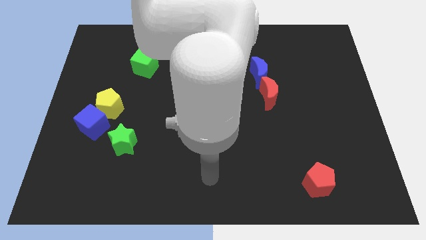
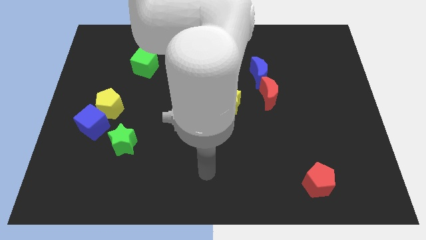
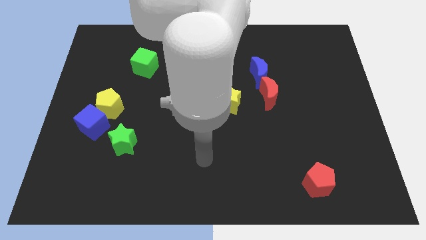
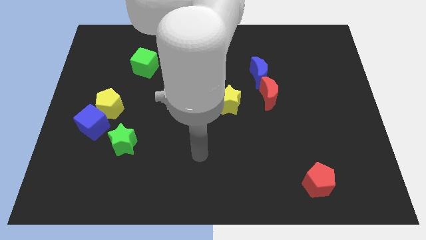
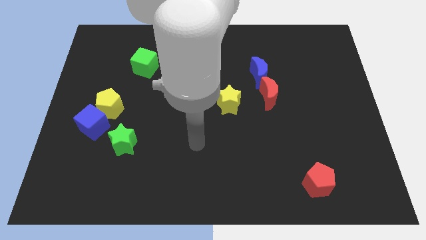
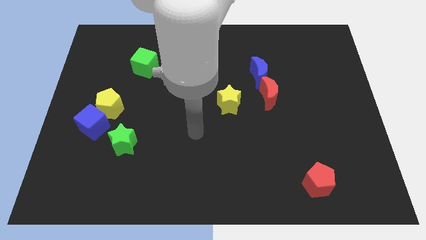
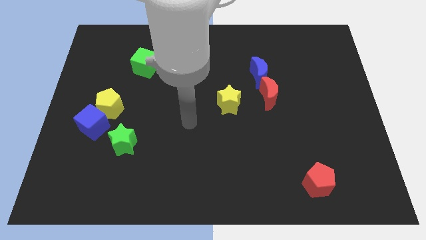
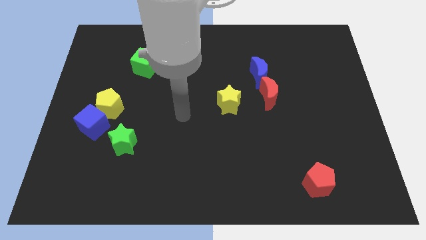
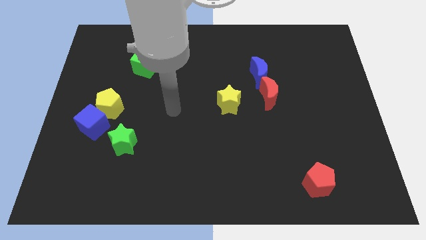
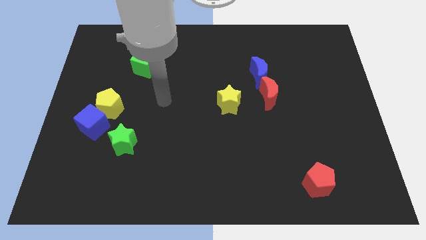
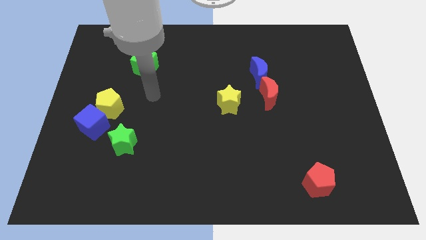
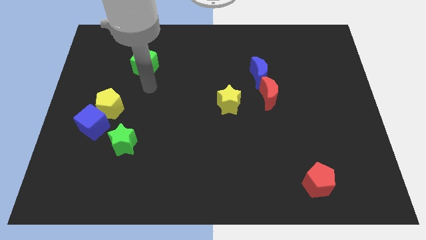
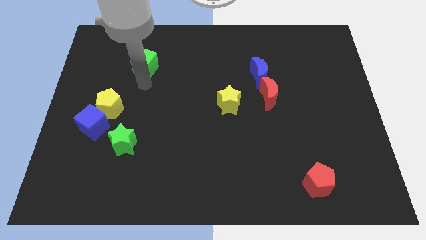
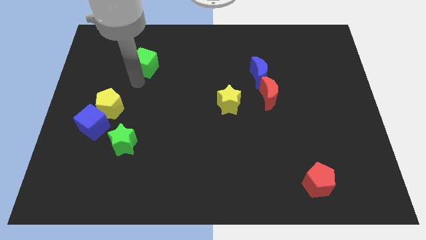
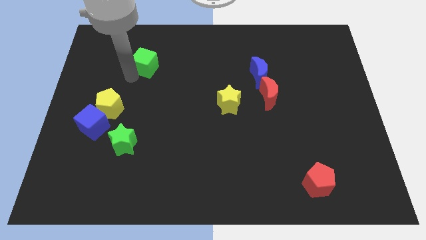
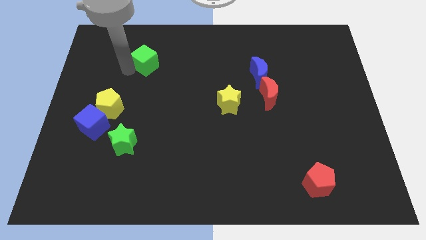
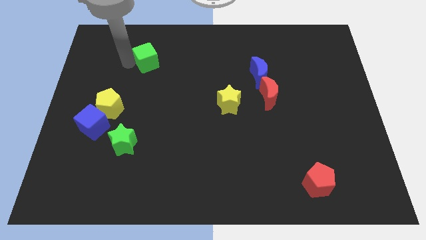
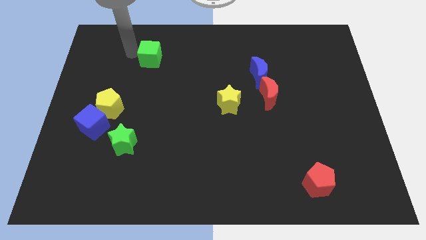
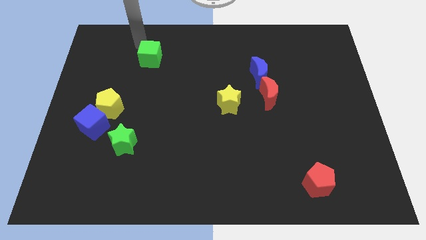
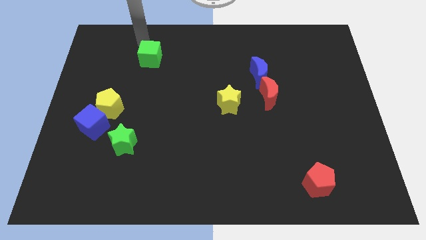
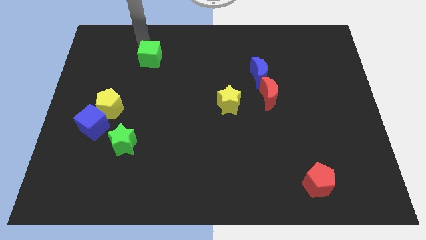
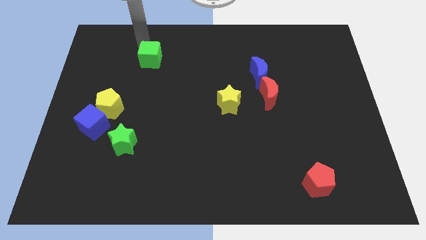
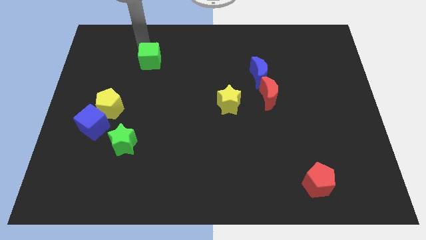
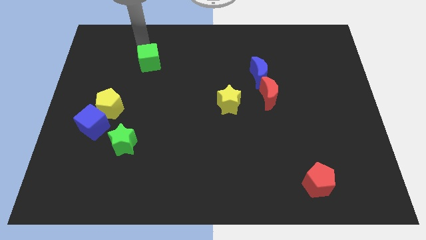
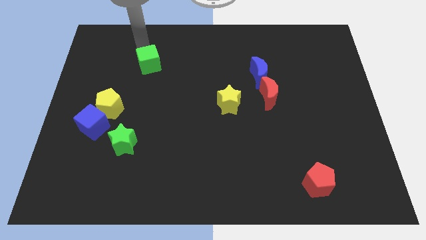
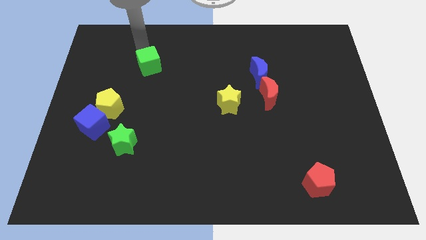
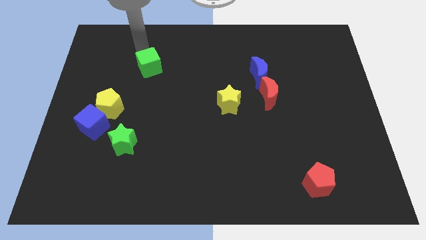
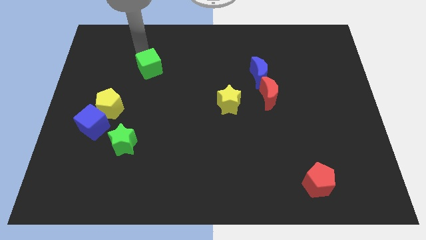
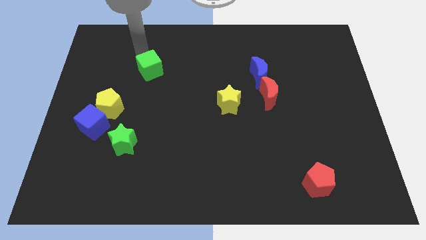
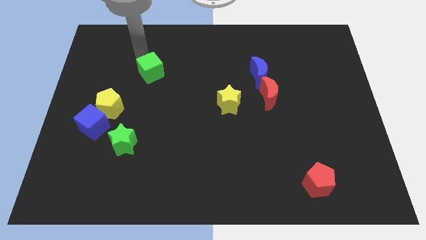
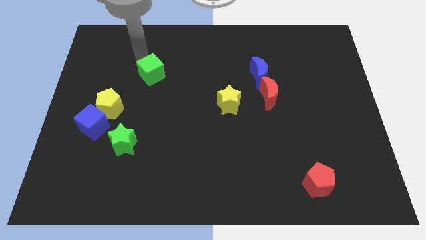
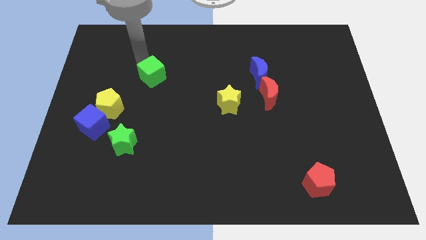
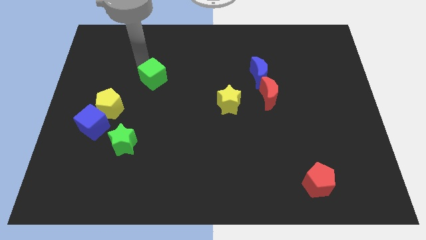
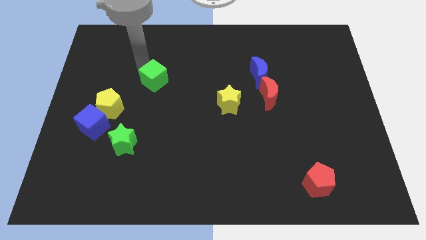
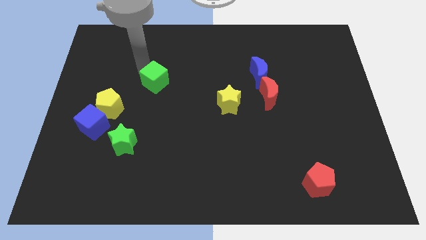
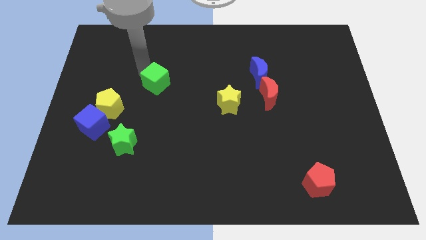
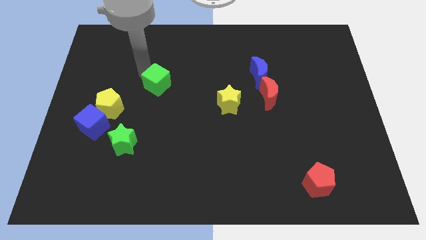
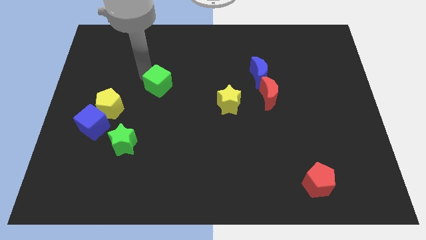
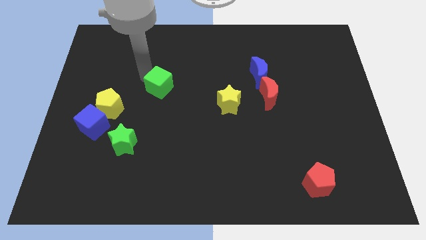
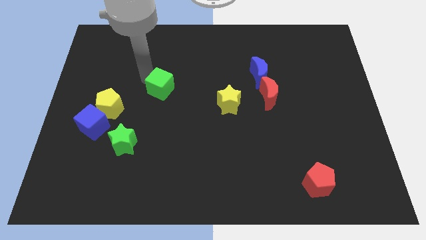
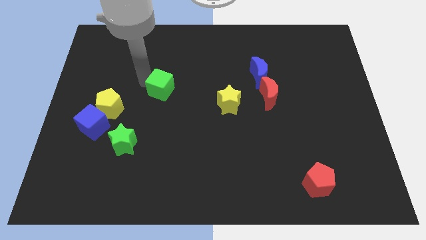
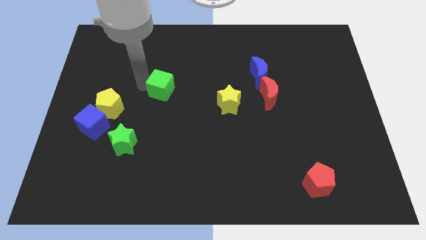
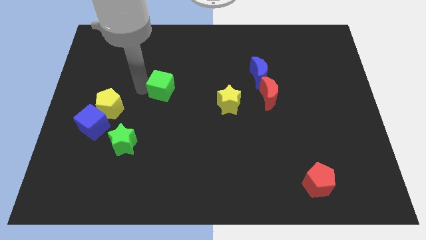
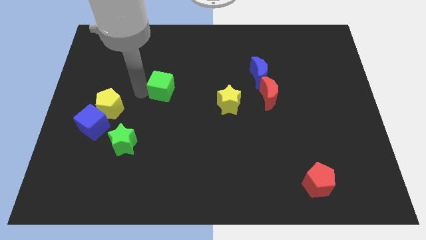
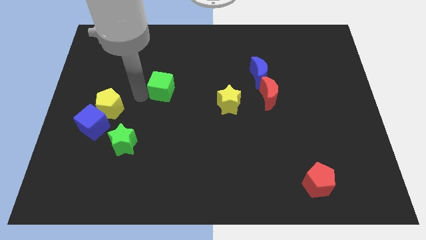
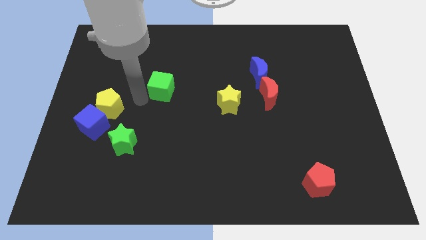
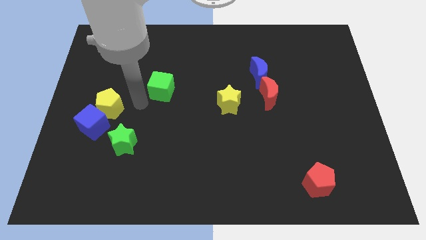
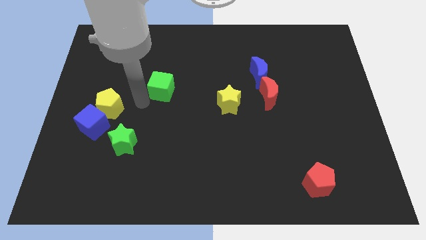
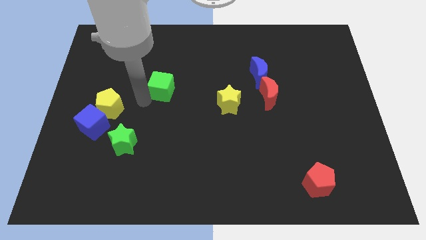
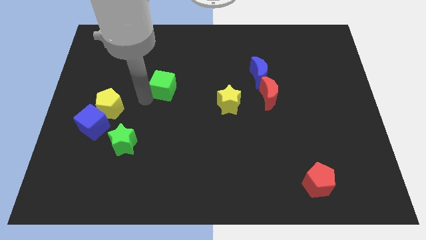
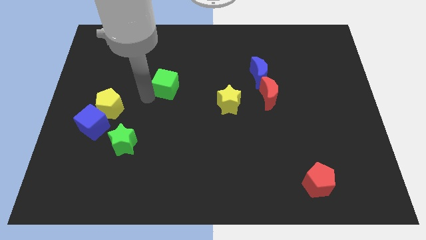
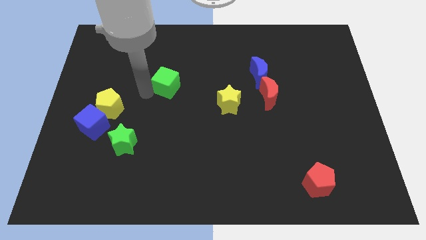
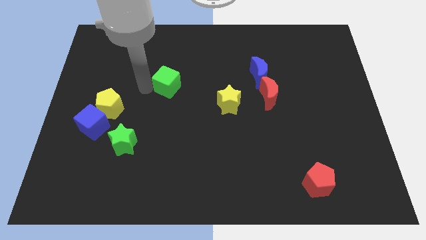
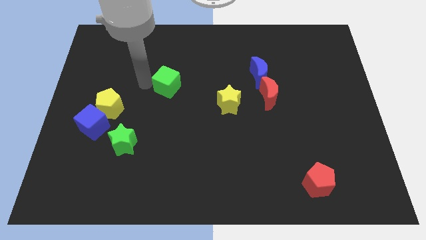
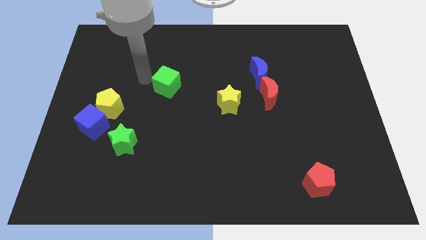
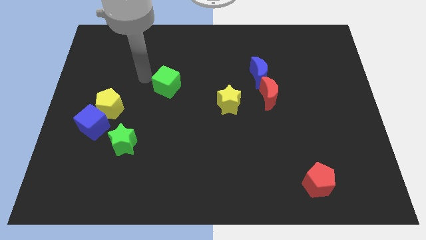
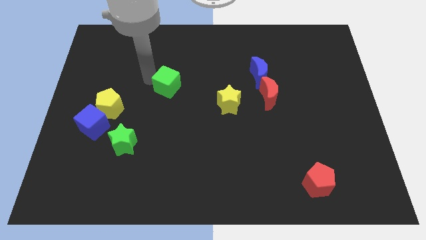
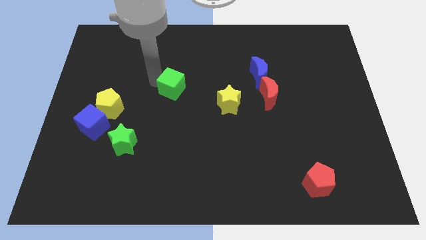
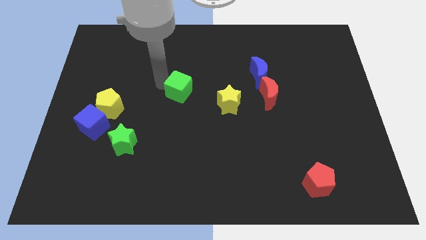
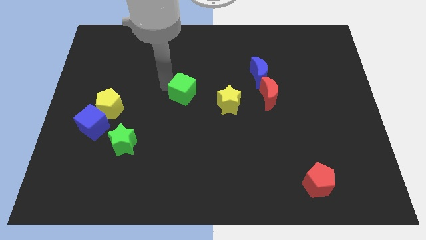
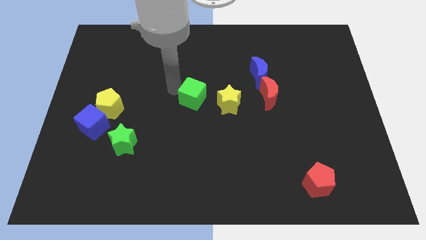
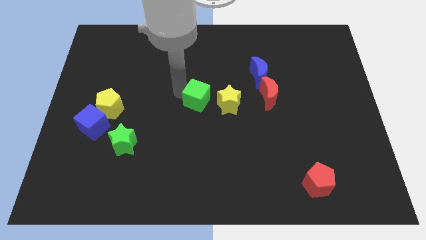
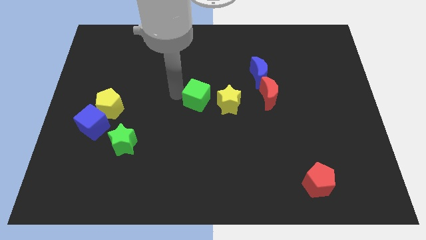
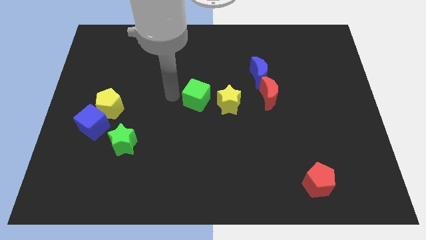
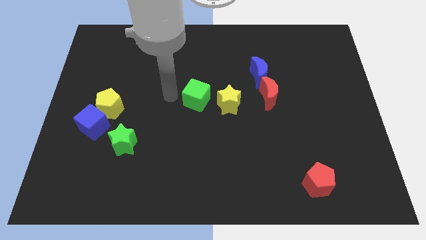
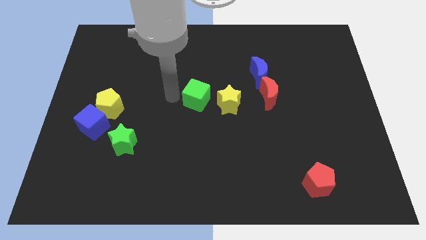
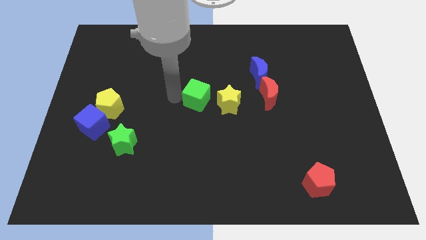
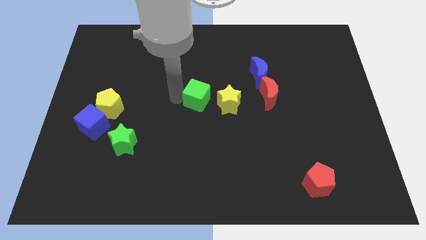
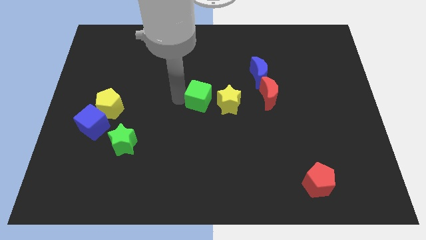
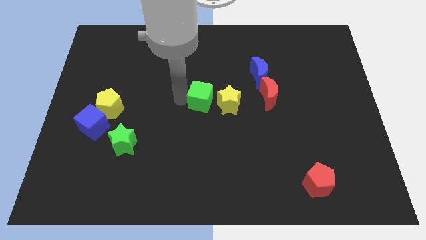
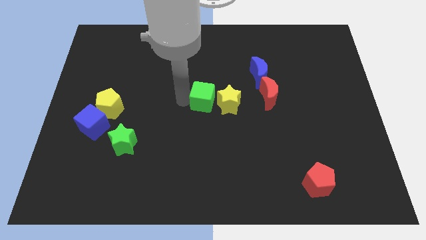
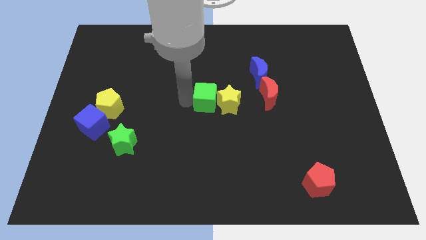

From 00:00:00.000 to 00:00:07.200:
push the green cube towards the yellow star

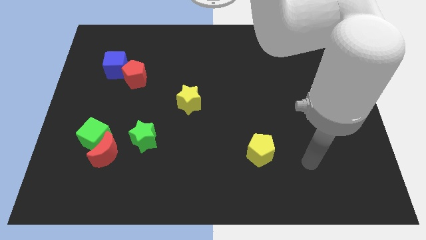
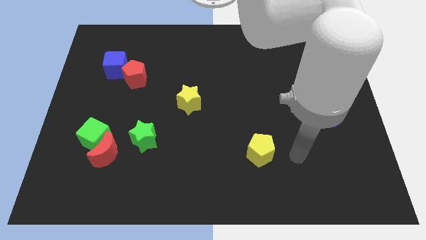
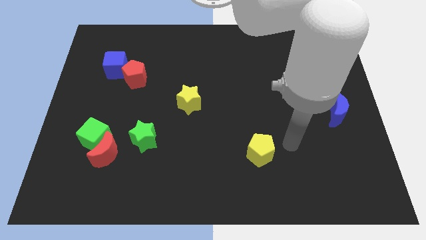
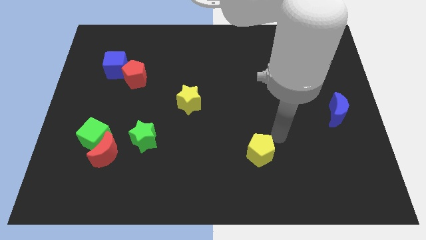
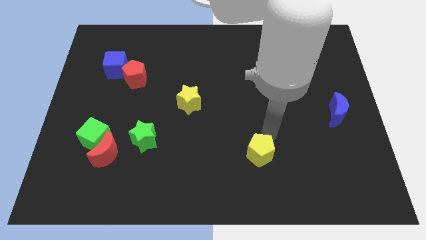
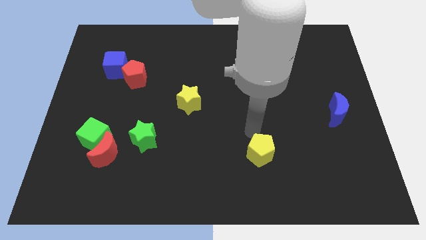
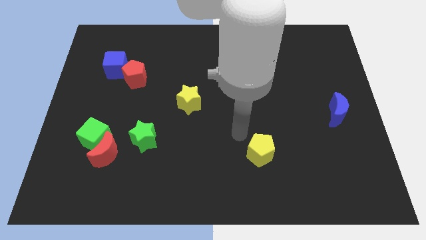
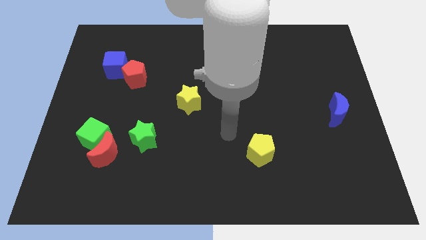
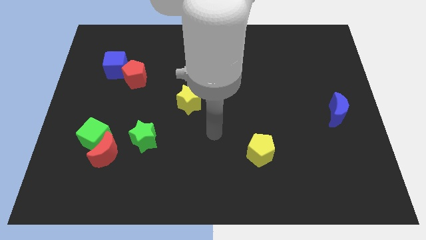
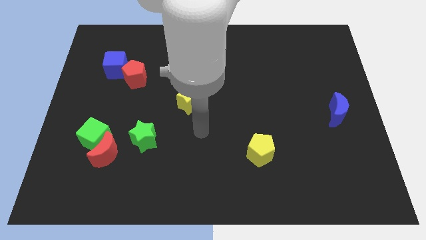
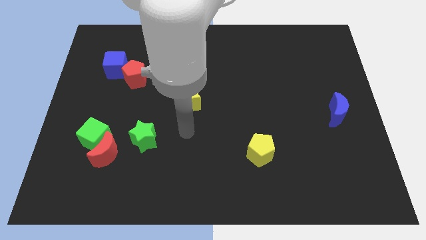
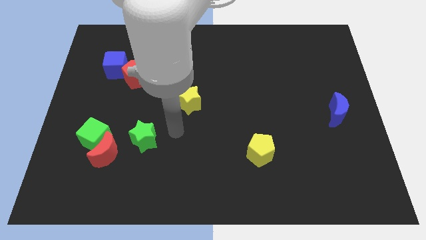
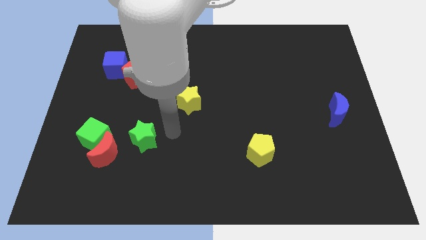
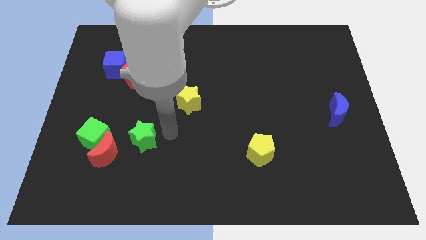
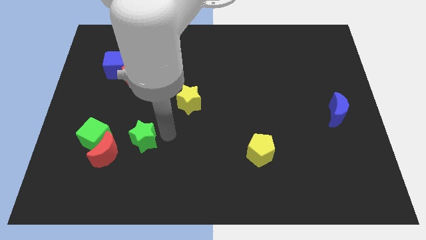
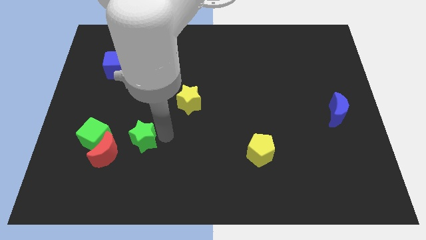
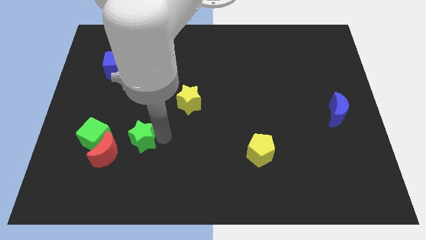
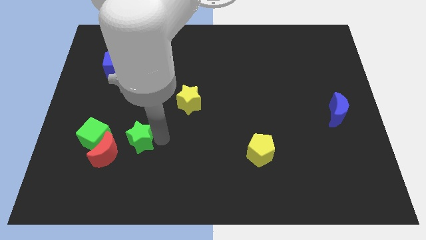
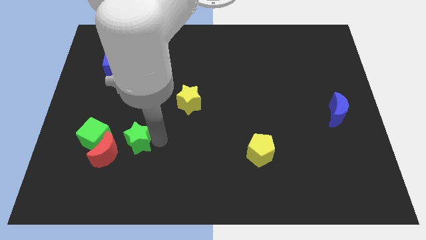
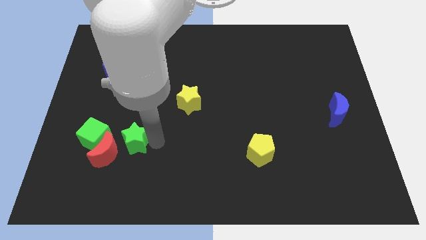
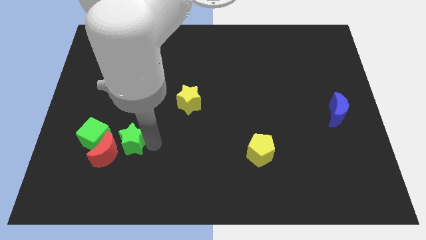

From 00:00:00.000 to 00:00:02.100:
move the green star close to the red moon
